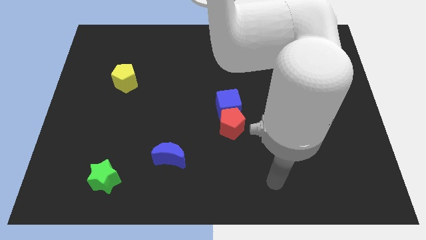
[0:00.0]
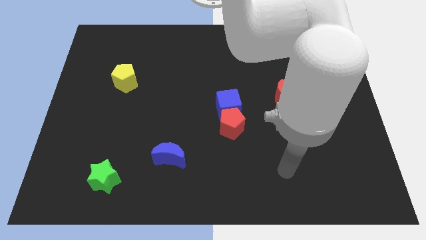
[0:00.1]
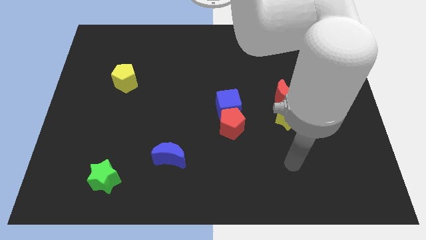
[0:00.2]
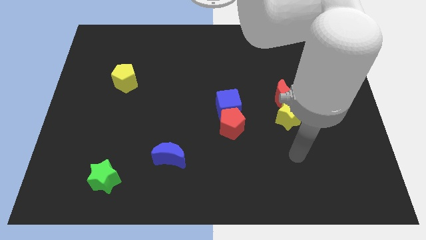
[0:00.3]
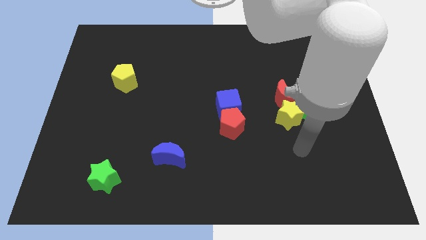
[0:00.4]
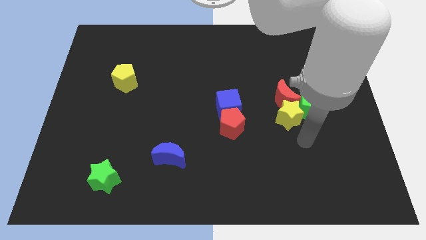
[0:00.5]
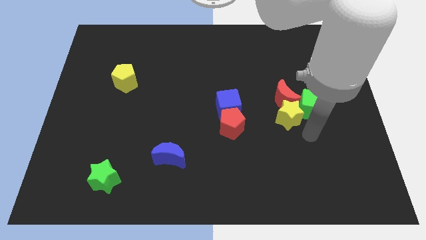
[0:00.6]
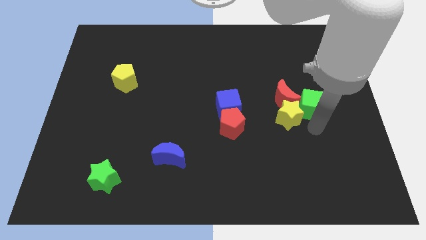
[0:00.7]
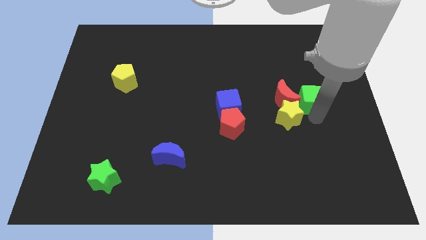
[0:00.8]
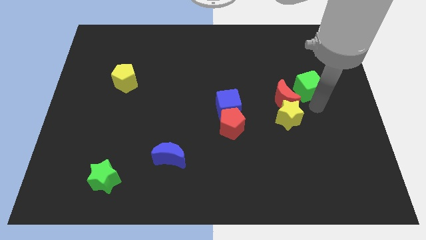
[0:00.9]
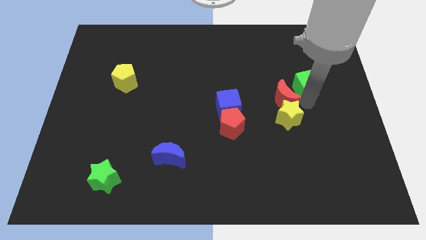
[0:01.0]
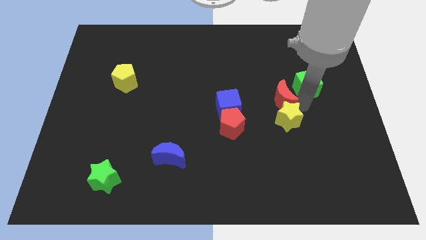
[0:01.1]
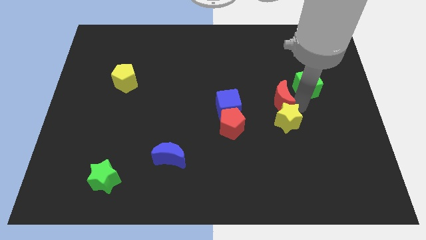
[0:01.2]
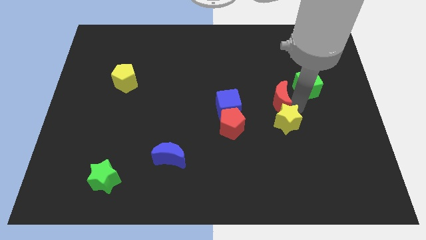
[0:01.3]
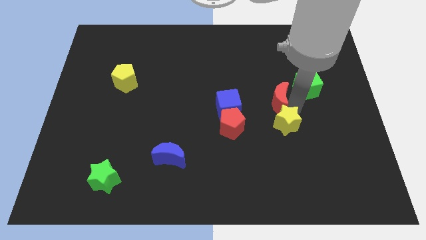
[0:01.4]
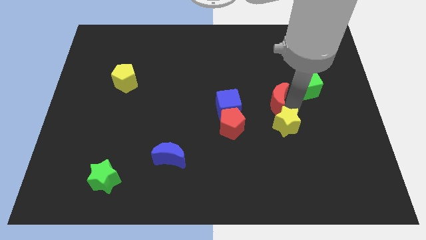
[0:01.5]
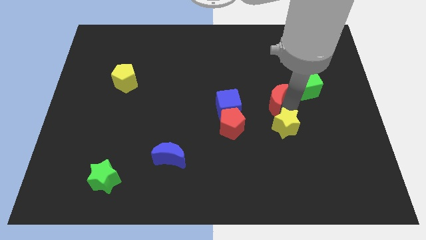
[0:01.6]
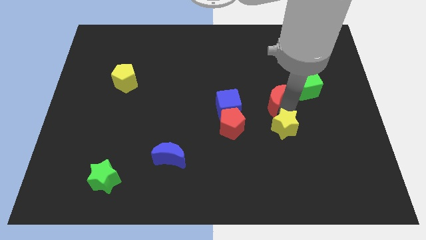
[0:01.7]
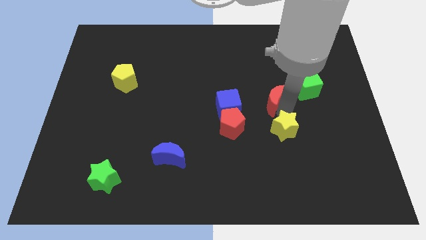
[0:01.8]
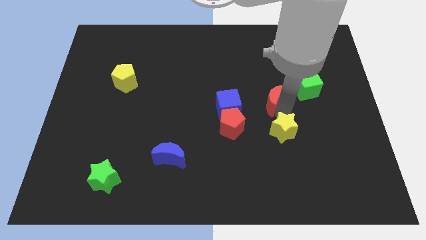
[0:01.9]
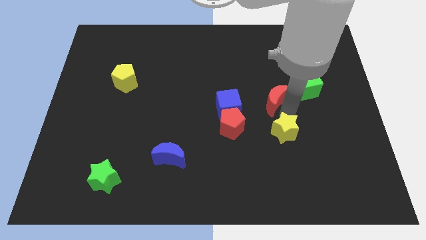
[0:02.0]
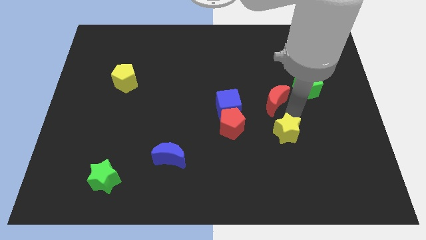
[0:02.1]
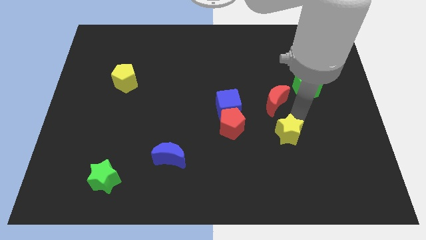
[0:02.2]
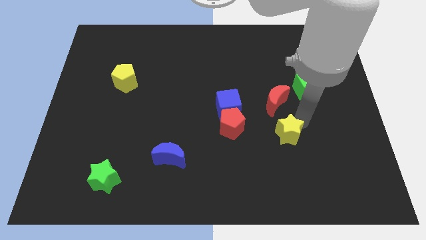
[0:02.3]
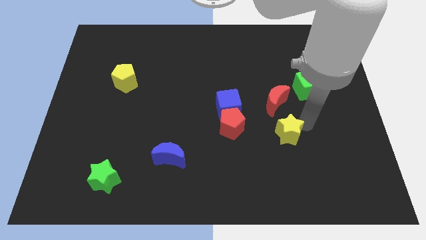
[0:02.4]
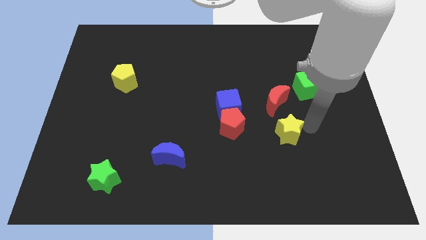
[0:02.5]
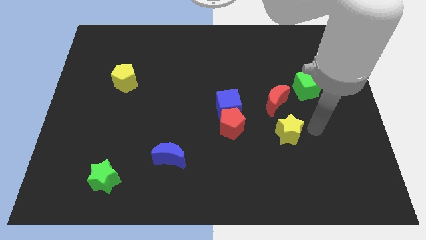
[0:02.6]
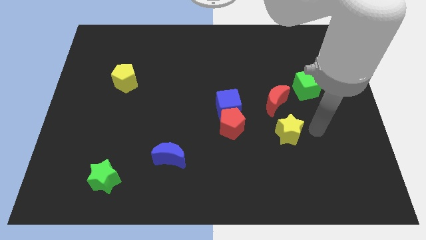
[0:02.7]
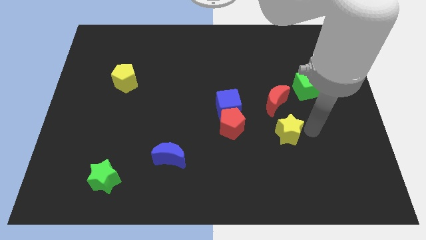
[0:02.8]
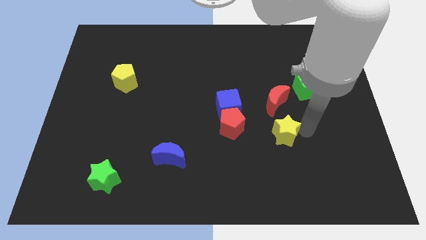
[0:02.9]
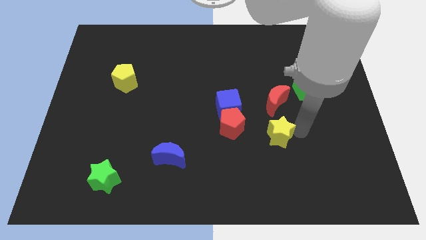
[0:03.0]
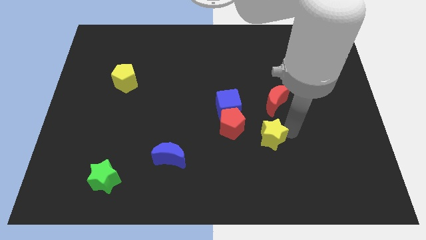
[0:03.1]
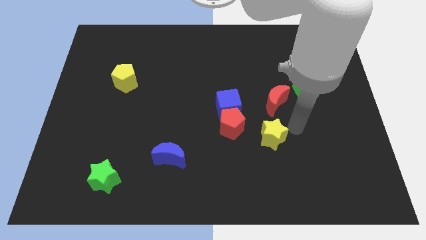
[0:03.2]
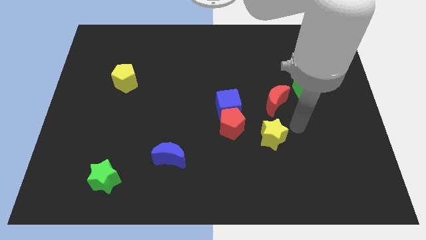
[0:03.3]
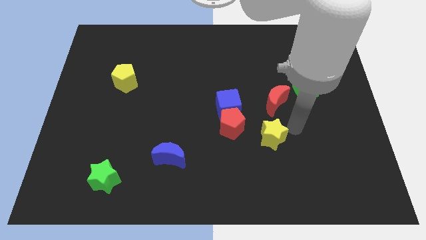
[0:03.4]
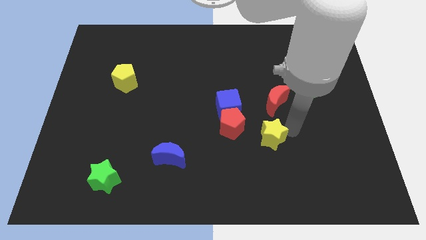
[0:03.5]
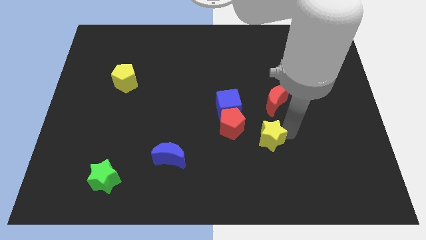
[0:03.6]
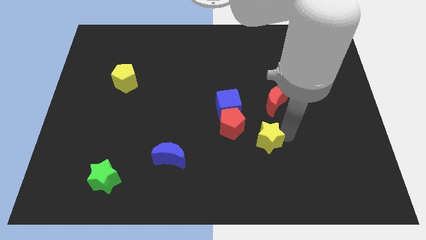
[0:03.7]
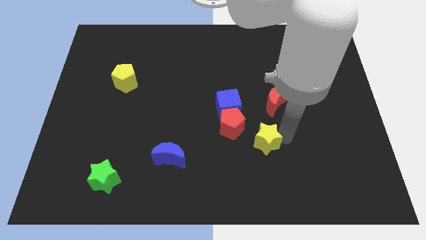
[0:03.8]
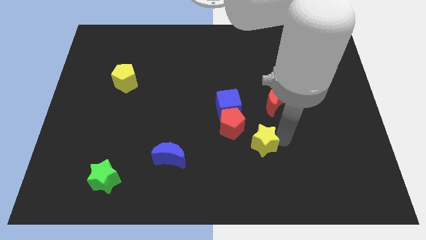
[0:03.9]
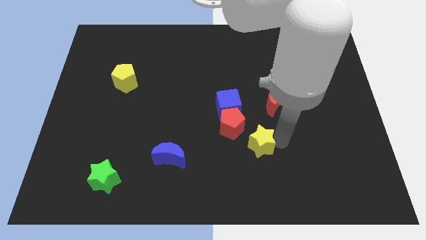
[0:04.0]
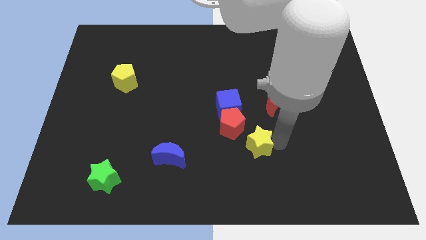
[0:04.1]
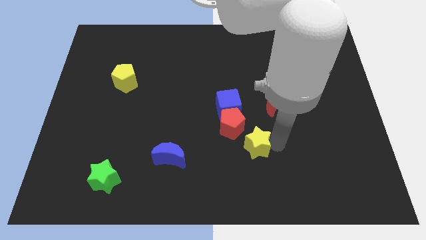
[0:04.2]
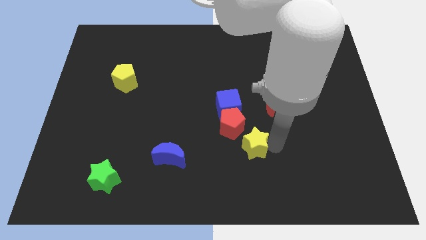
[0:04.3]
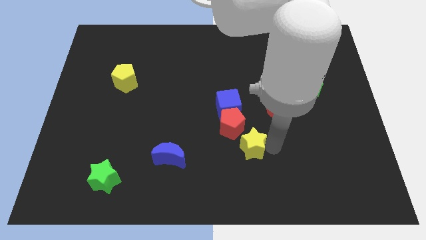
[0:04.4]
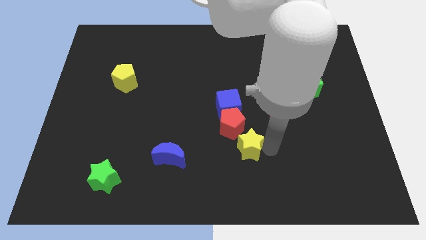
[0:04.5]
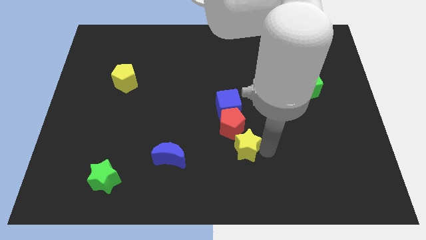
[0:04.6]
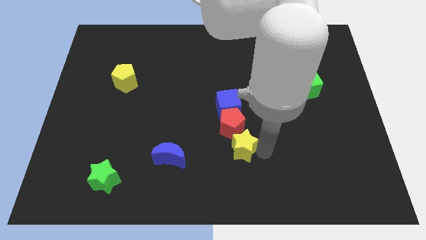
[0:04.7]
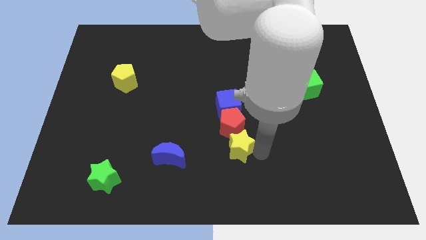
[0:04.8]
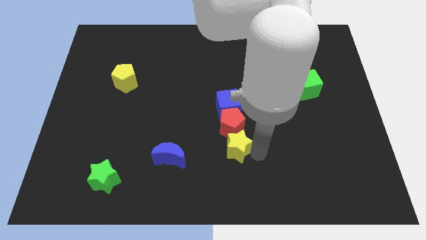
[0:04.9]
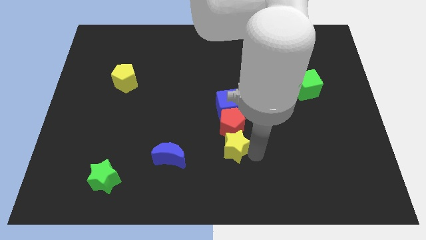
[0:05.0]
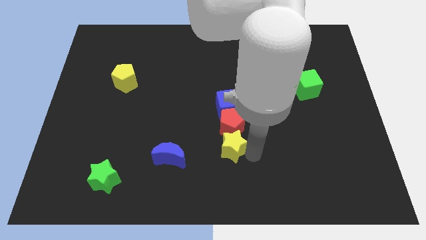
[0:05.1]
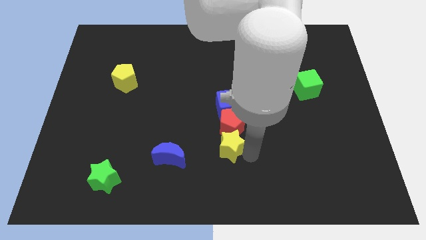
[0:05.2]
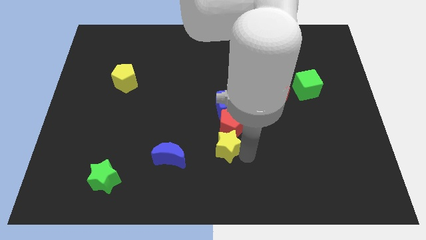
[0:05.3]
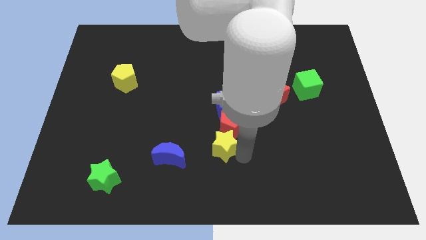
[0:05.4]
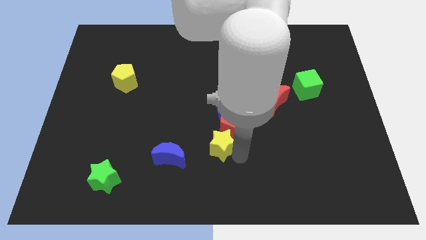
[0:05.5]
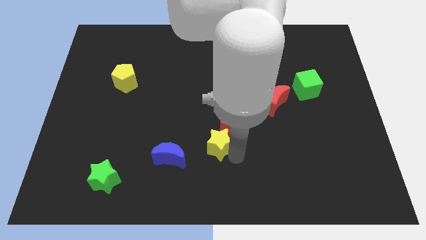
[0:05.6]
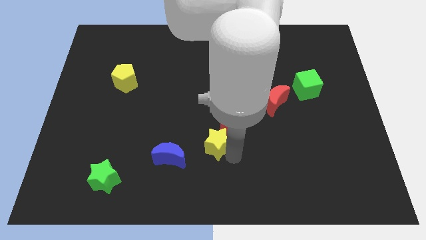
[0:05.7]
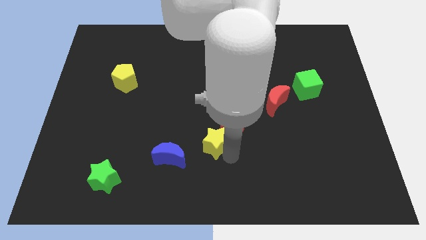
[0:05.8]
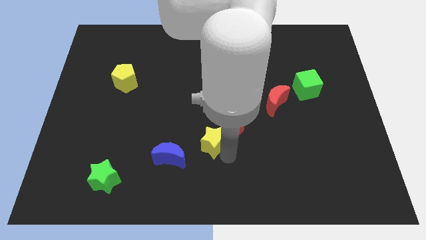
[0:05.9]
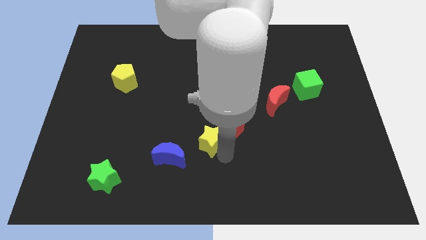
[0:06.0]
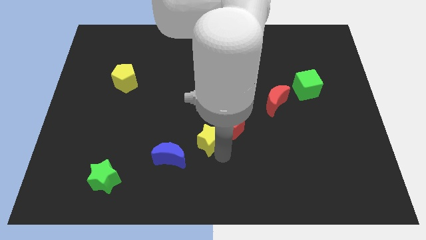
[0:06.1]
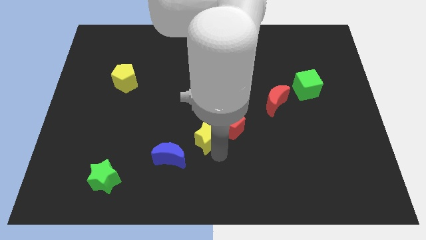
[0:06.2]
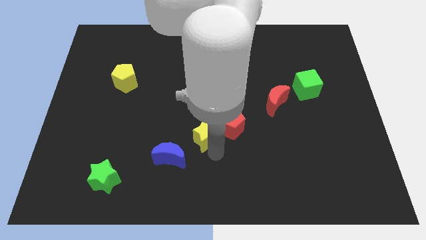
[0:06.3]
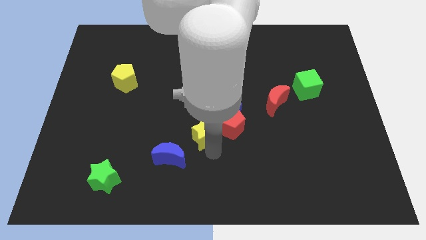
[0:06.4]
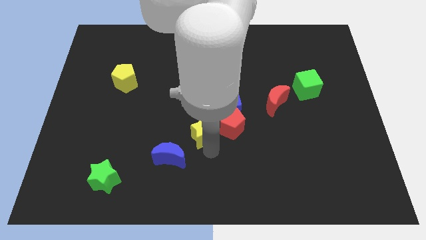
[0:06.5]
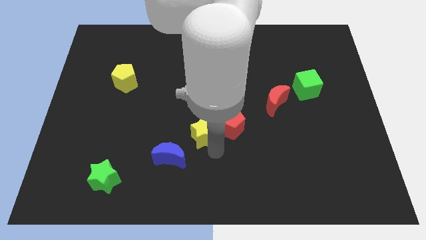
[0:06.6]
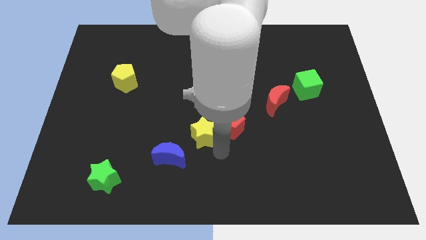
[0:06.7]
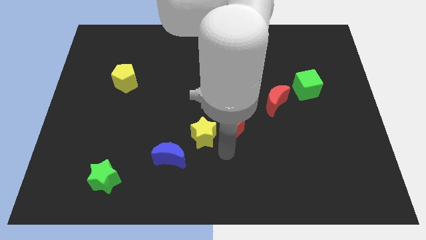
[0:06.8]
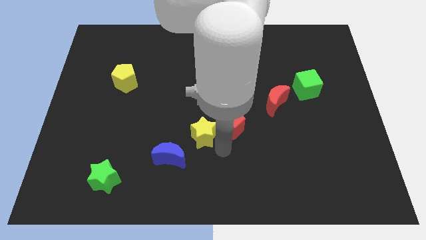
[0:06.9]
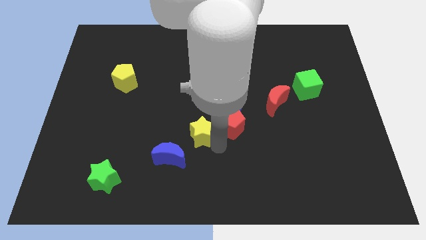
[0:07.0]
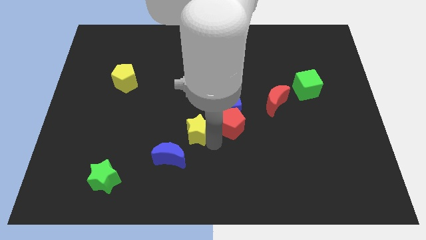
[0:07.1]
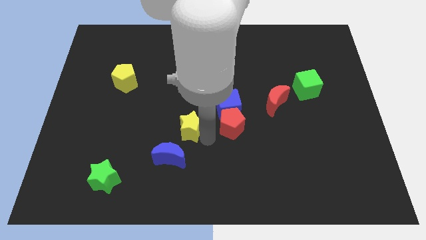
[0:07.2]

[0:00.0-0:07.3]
push the yellow star to the top of the blue moon

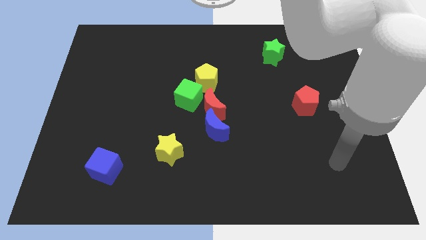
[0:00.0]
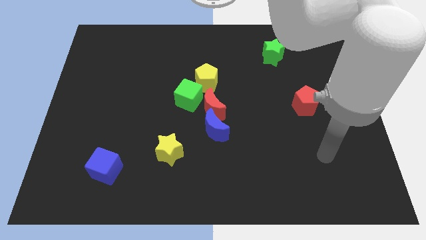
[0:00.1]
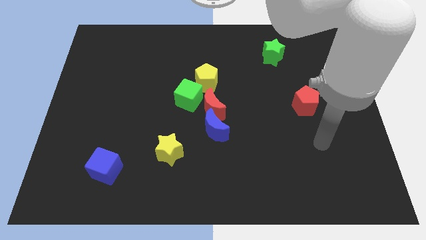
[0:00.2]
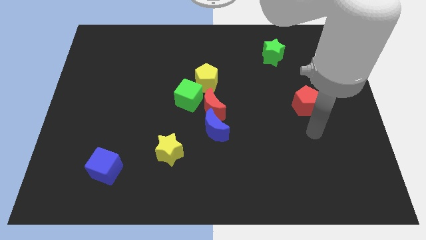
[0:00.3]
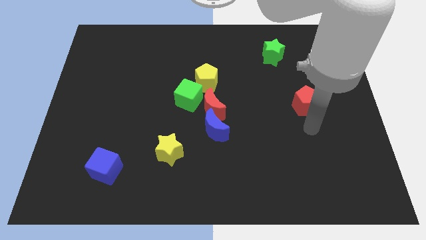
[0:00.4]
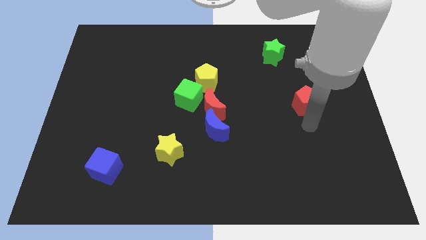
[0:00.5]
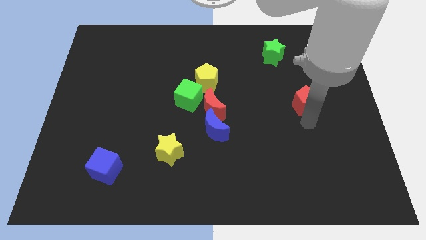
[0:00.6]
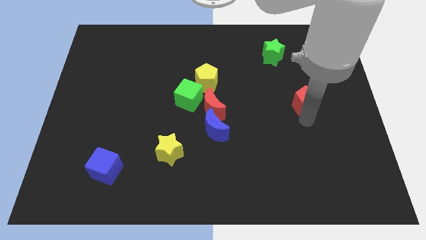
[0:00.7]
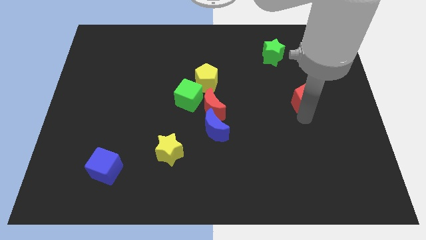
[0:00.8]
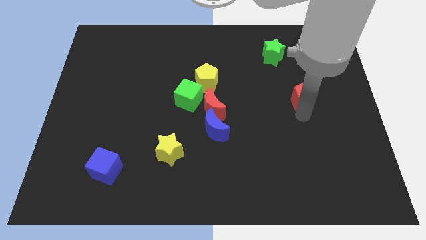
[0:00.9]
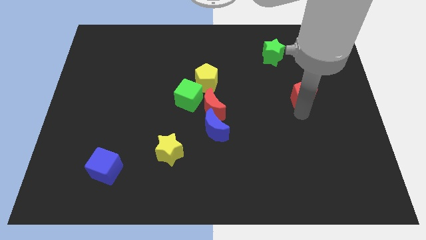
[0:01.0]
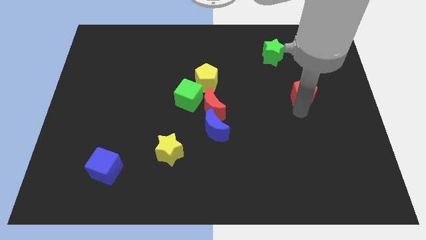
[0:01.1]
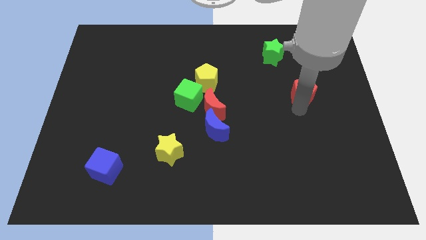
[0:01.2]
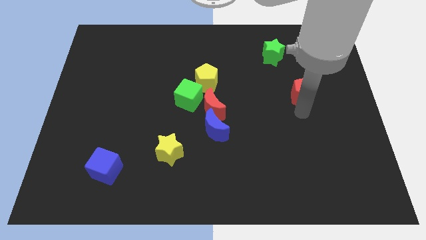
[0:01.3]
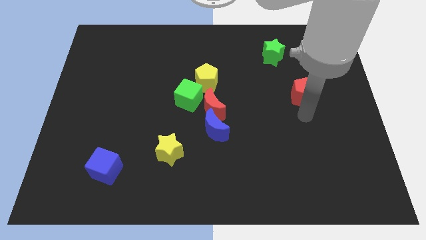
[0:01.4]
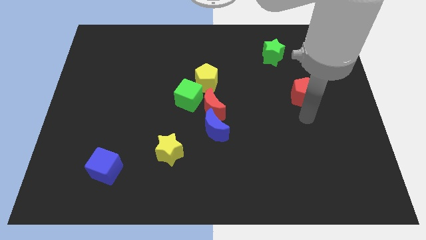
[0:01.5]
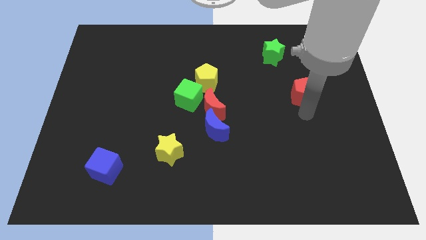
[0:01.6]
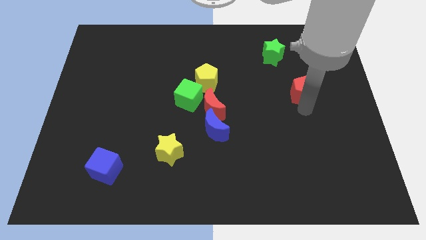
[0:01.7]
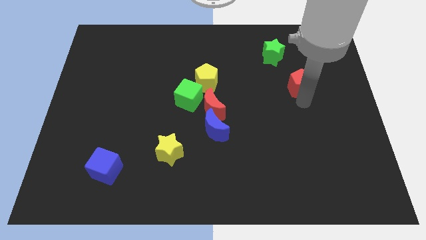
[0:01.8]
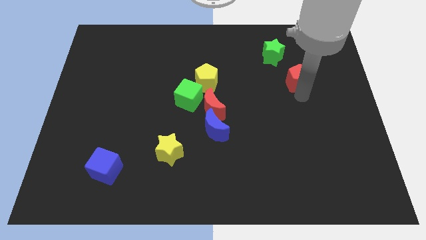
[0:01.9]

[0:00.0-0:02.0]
push the red pentagon to the bottom right side of the green star
